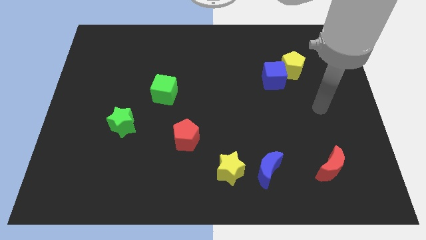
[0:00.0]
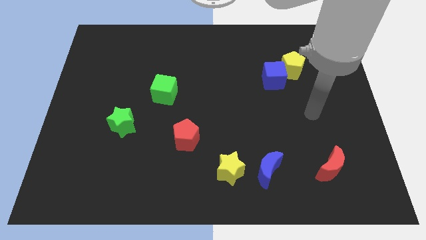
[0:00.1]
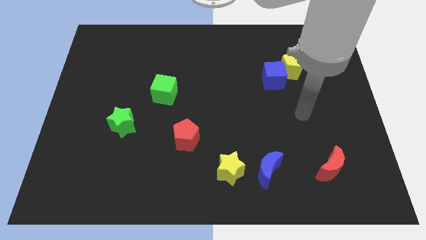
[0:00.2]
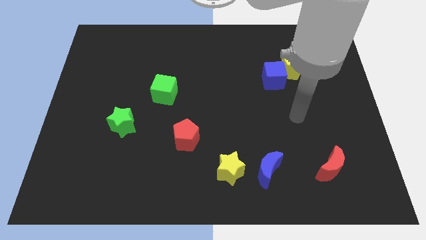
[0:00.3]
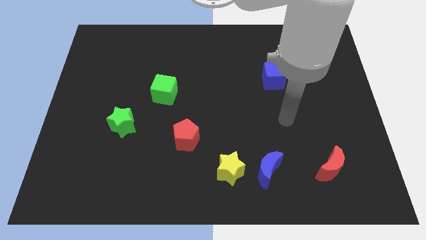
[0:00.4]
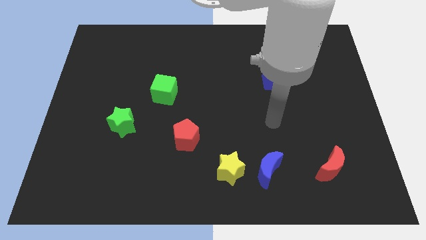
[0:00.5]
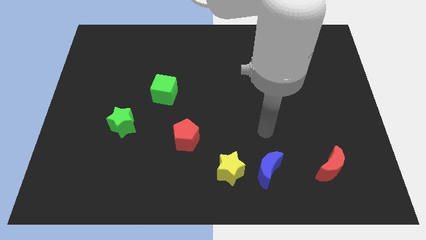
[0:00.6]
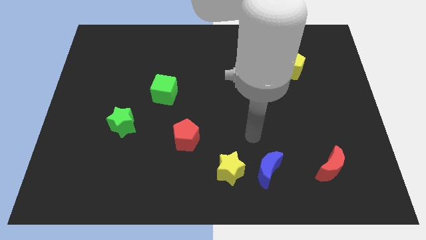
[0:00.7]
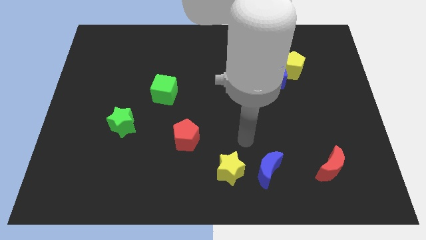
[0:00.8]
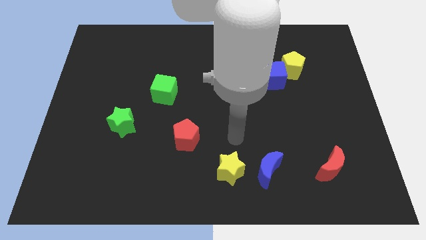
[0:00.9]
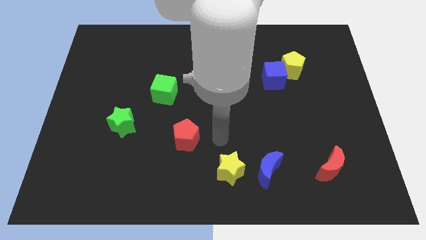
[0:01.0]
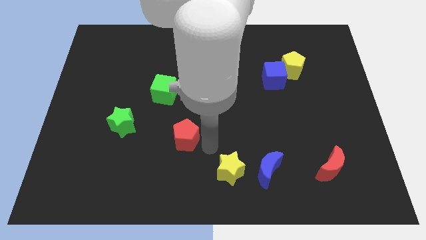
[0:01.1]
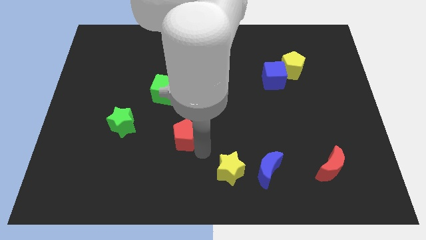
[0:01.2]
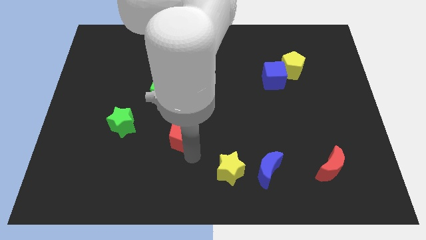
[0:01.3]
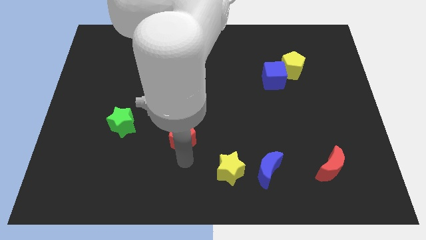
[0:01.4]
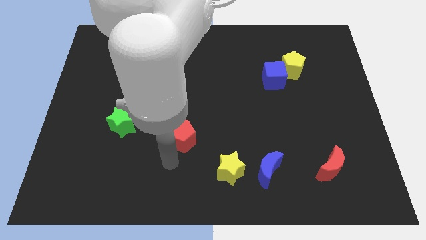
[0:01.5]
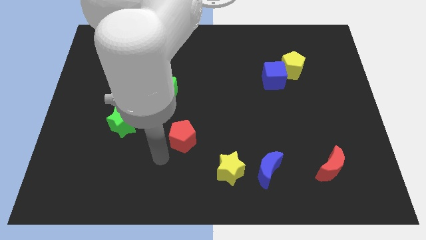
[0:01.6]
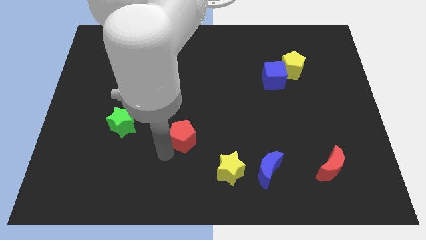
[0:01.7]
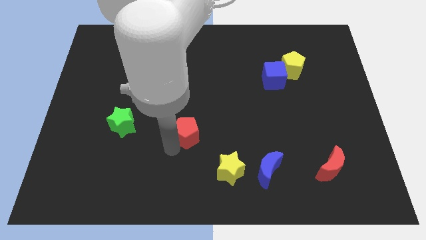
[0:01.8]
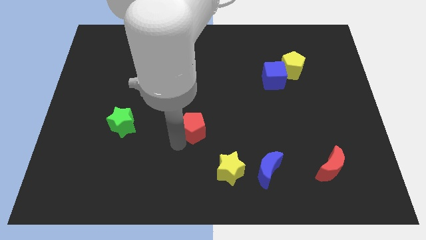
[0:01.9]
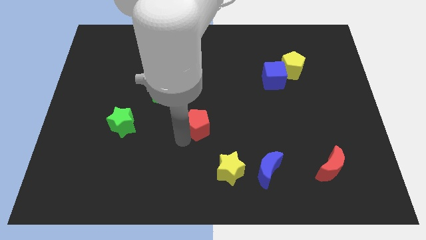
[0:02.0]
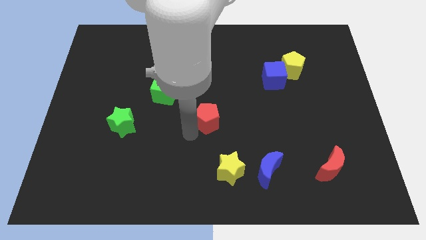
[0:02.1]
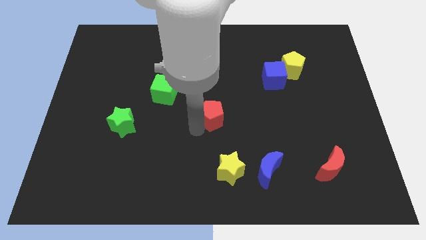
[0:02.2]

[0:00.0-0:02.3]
slide the red pentagon up and right diagonally slightly

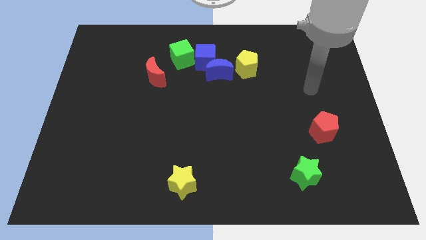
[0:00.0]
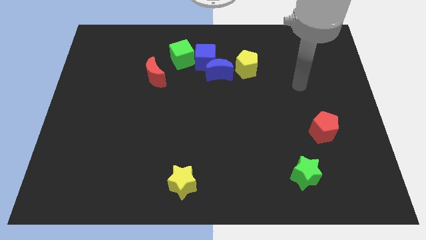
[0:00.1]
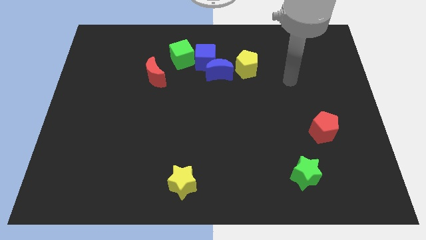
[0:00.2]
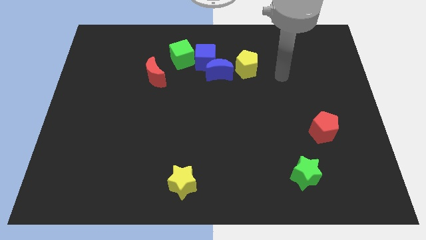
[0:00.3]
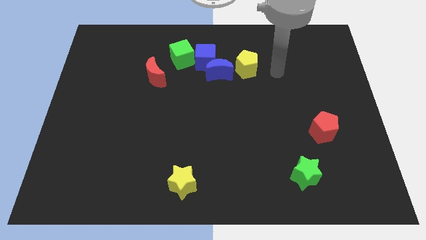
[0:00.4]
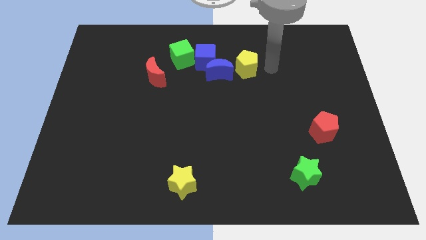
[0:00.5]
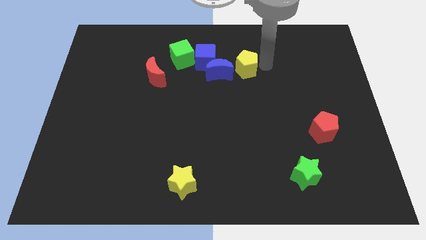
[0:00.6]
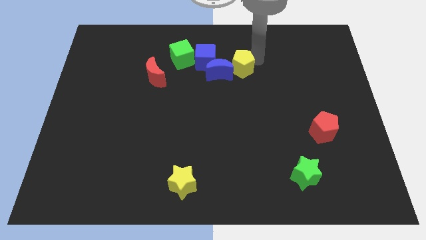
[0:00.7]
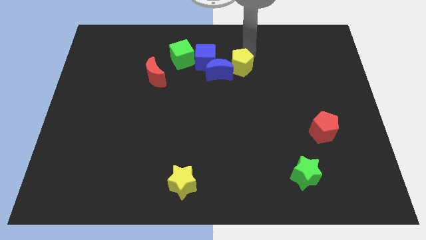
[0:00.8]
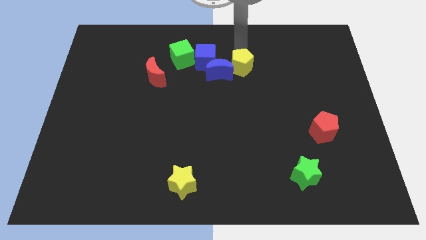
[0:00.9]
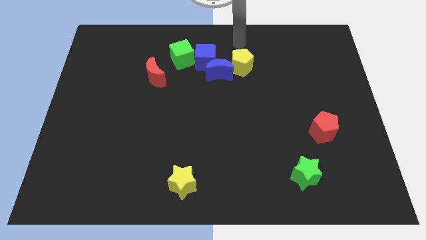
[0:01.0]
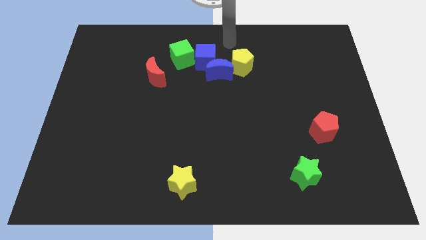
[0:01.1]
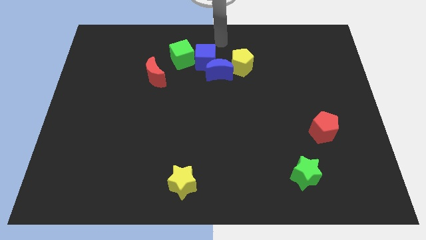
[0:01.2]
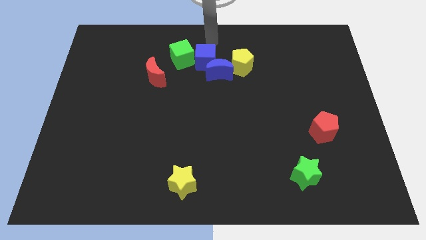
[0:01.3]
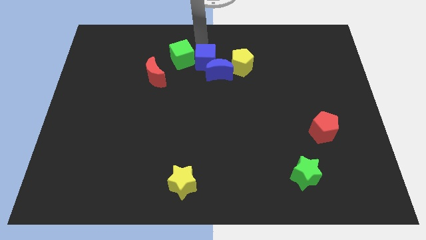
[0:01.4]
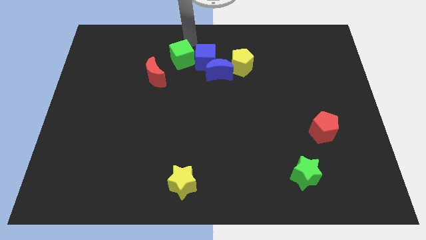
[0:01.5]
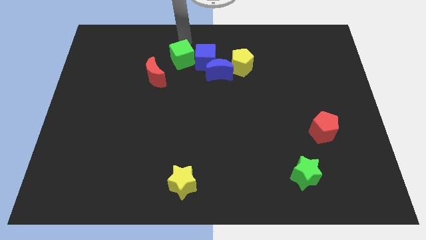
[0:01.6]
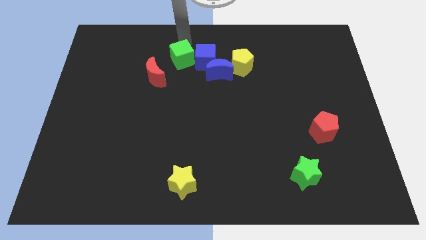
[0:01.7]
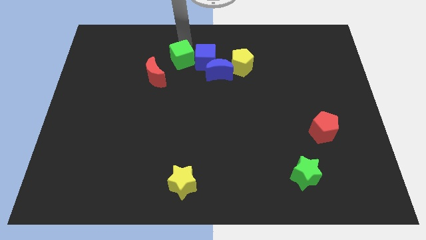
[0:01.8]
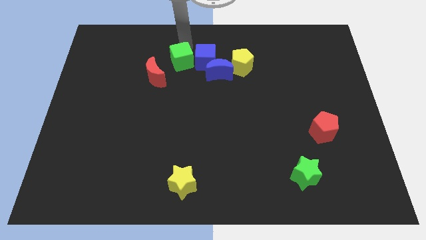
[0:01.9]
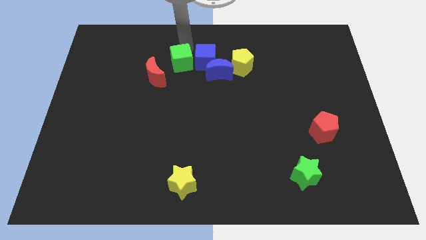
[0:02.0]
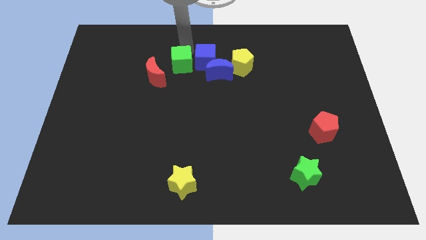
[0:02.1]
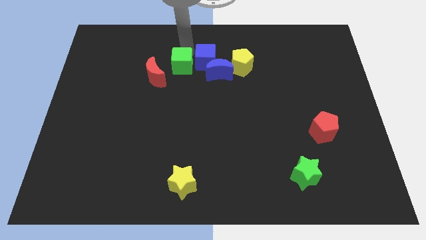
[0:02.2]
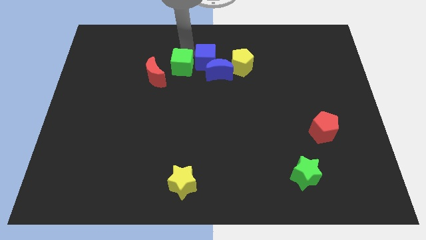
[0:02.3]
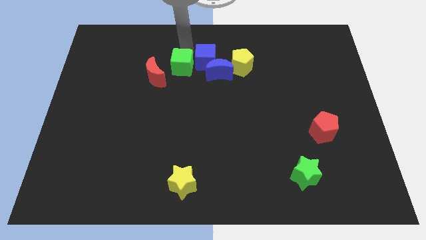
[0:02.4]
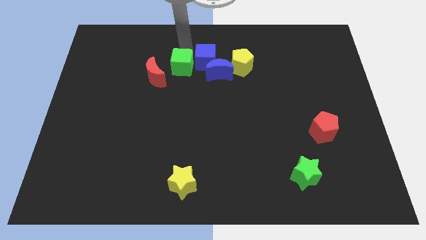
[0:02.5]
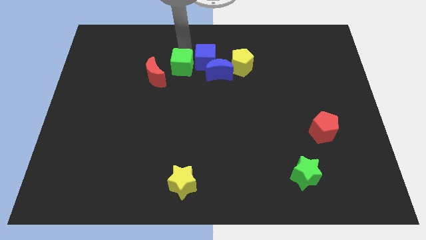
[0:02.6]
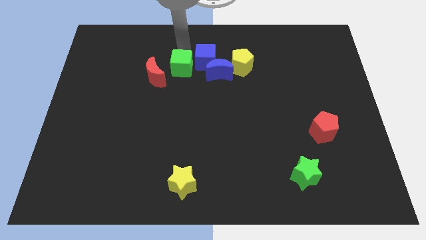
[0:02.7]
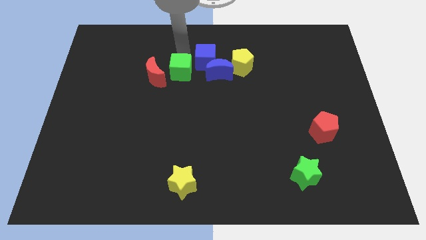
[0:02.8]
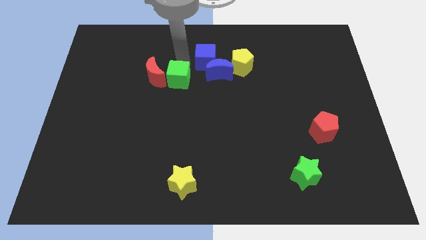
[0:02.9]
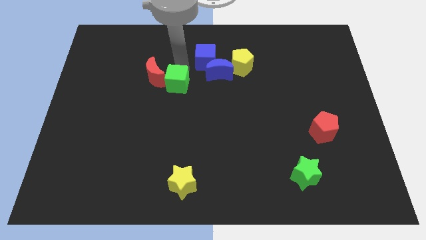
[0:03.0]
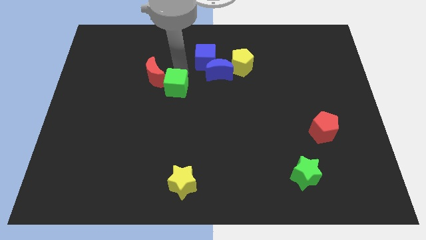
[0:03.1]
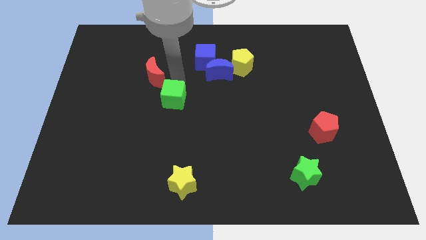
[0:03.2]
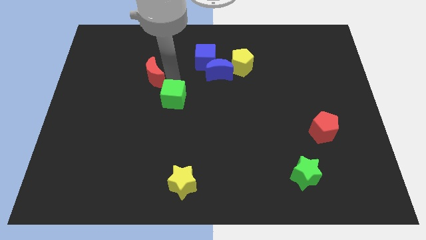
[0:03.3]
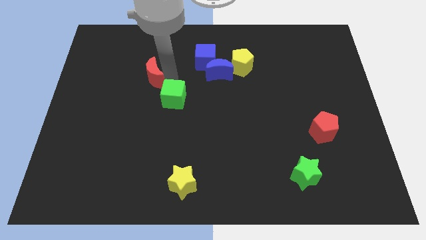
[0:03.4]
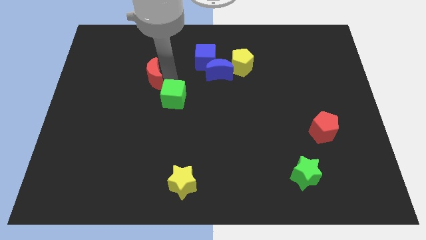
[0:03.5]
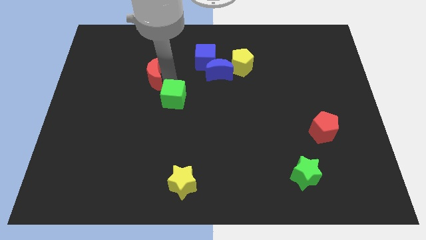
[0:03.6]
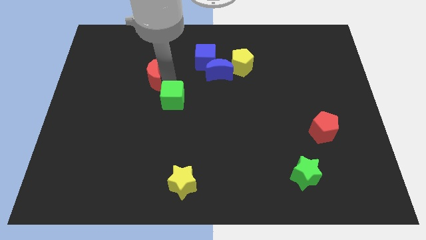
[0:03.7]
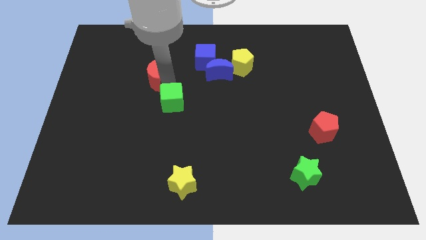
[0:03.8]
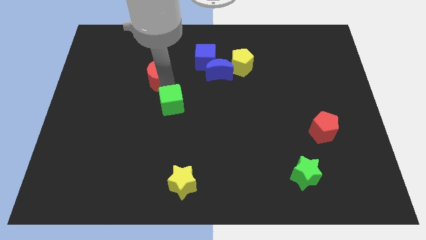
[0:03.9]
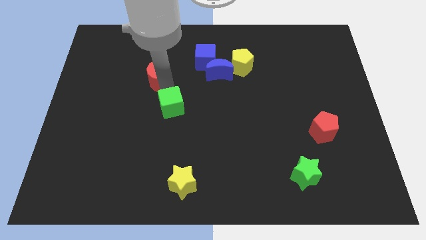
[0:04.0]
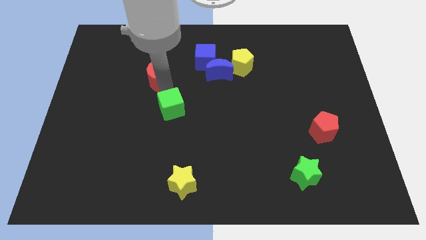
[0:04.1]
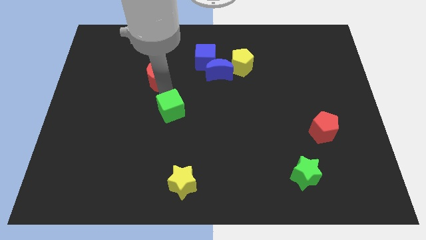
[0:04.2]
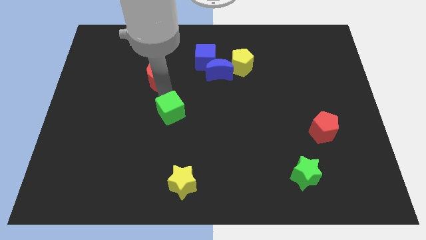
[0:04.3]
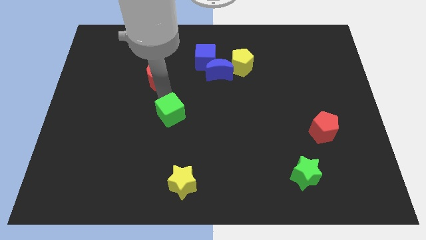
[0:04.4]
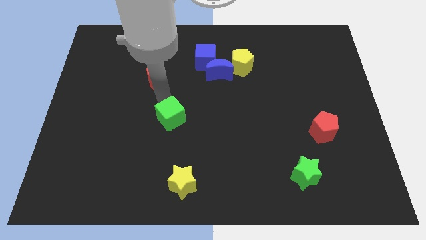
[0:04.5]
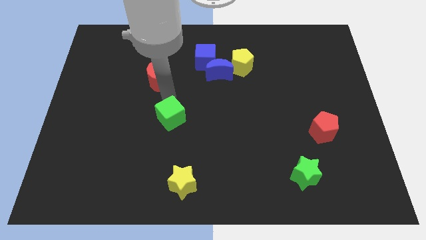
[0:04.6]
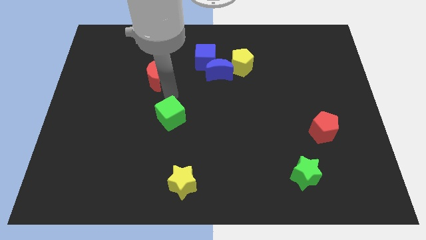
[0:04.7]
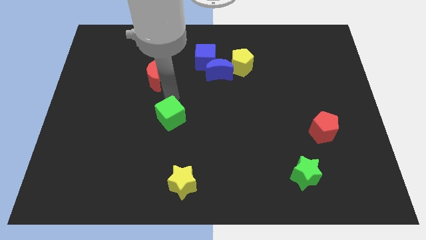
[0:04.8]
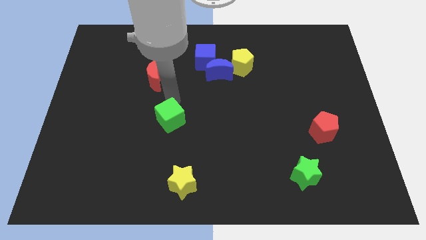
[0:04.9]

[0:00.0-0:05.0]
move the green cube down

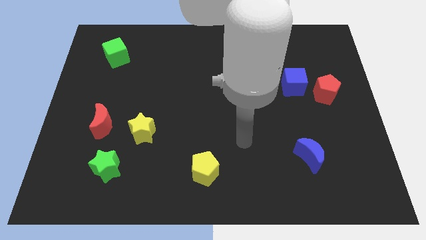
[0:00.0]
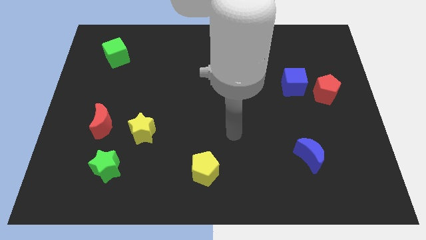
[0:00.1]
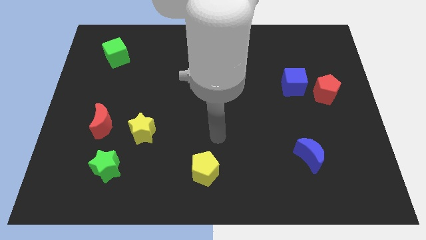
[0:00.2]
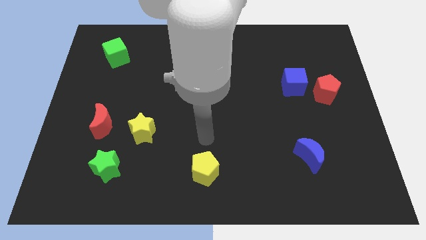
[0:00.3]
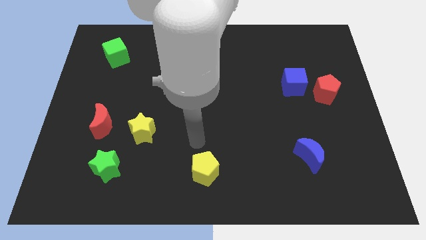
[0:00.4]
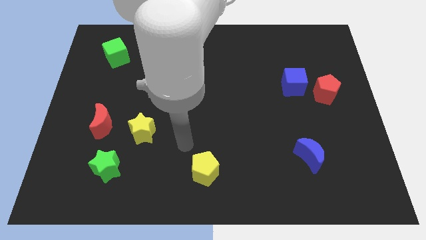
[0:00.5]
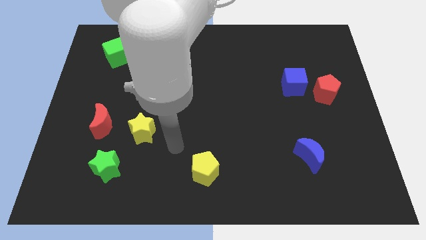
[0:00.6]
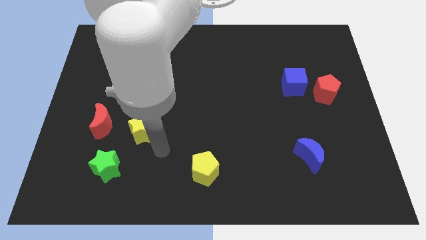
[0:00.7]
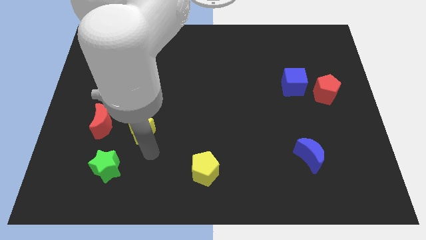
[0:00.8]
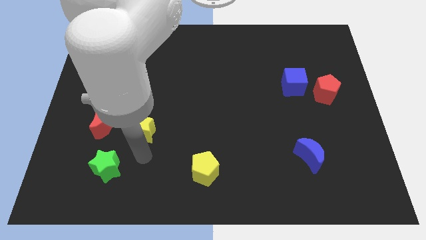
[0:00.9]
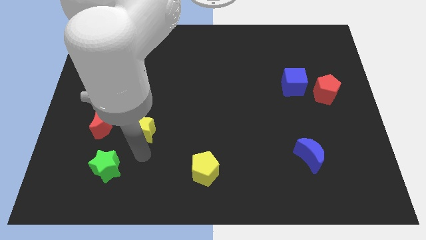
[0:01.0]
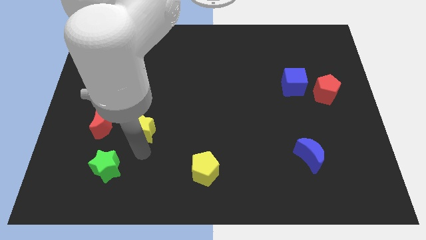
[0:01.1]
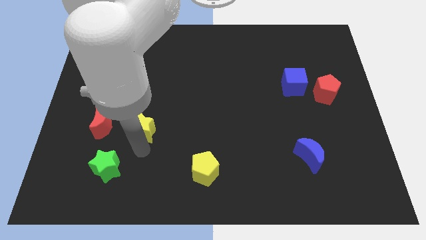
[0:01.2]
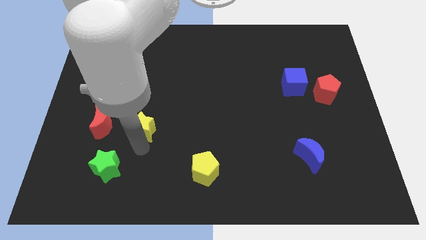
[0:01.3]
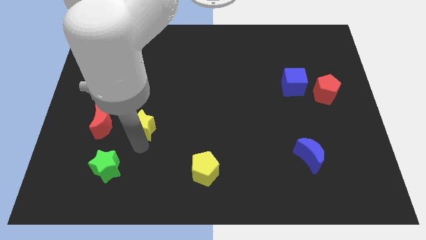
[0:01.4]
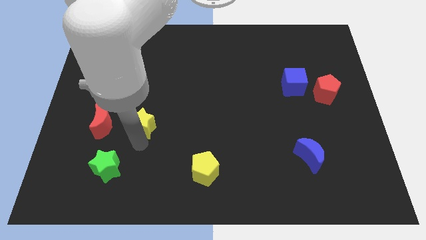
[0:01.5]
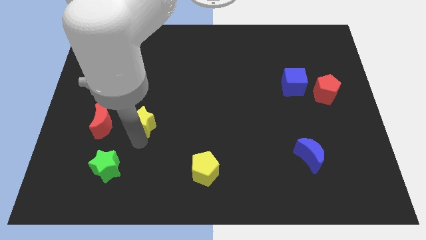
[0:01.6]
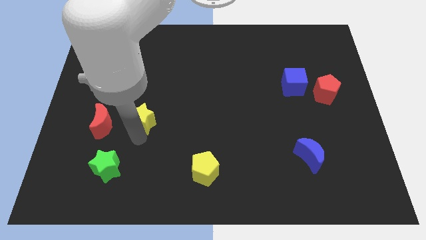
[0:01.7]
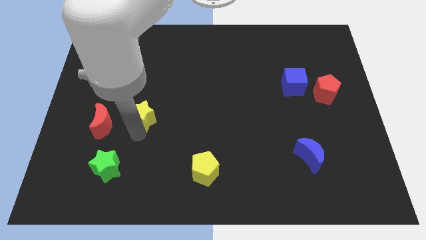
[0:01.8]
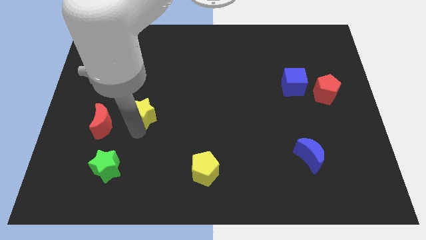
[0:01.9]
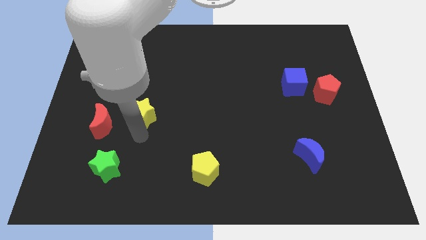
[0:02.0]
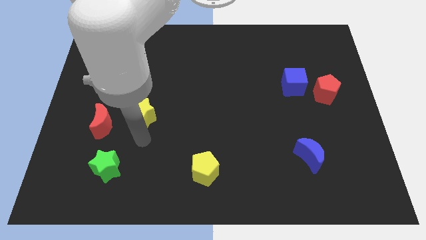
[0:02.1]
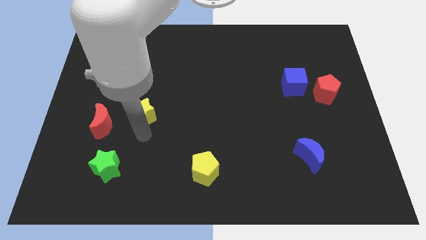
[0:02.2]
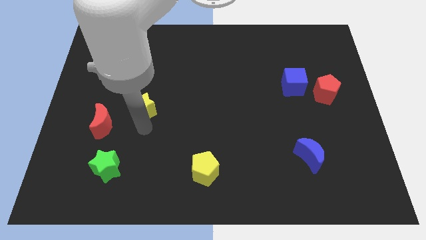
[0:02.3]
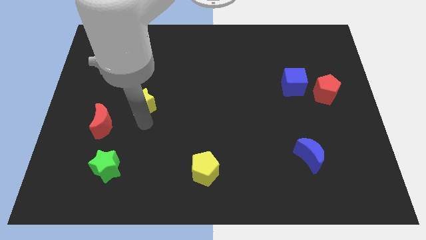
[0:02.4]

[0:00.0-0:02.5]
push the yellow star a little bit upwards
